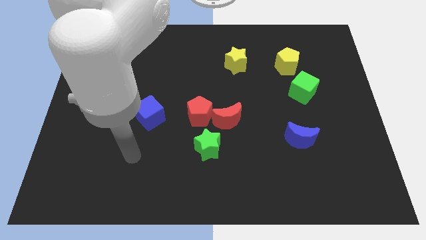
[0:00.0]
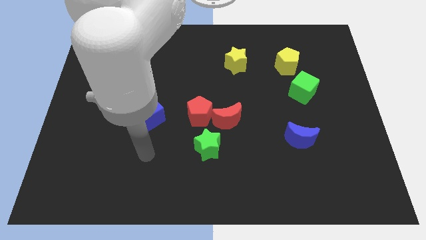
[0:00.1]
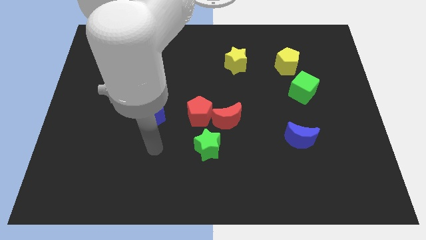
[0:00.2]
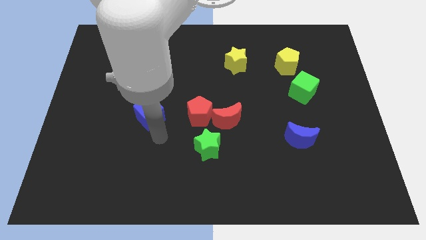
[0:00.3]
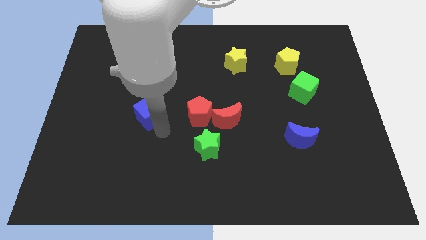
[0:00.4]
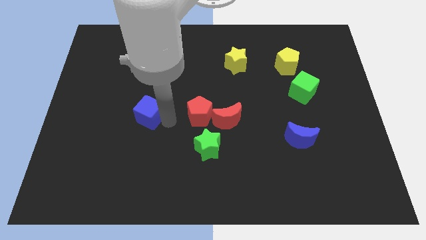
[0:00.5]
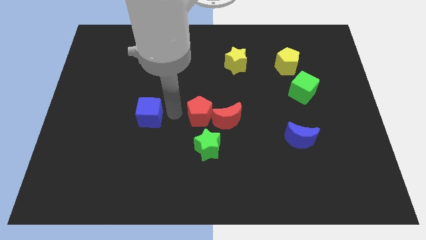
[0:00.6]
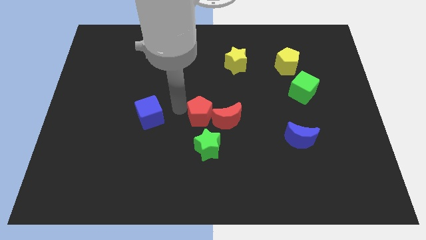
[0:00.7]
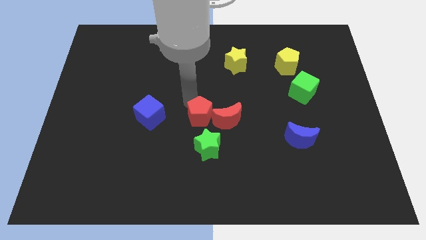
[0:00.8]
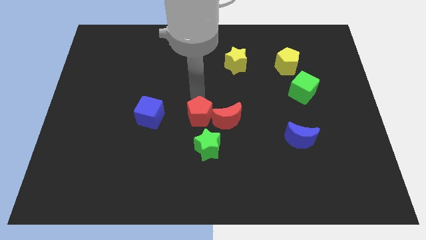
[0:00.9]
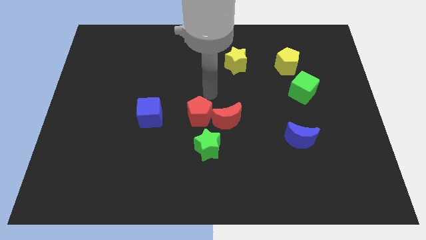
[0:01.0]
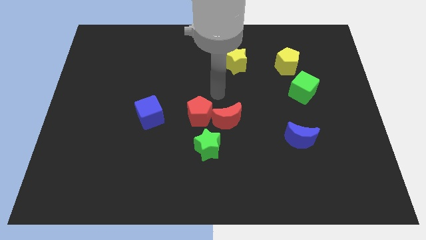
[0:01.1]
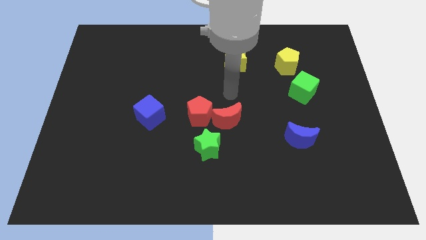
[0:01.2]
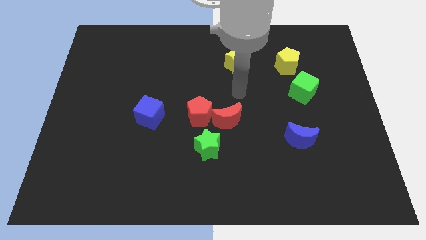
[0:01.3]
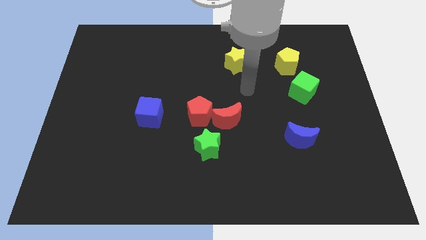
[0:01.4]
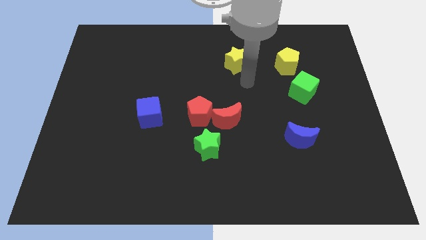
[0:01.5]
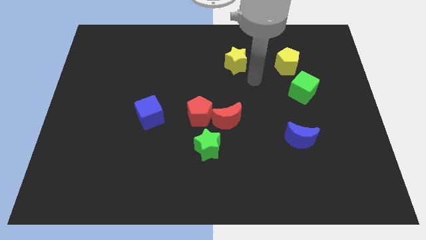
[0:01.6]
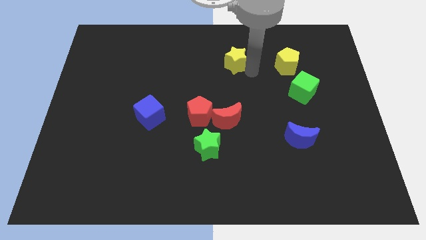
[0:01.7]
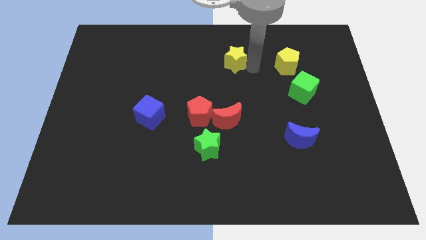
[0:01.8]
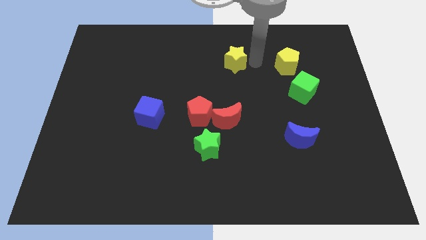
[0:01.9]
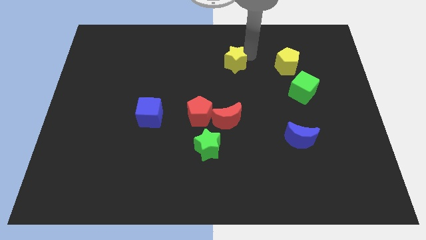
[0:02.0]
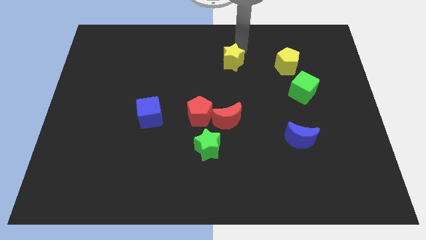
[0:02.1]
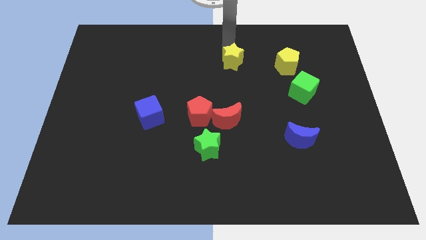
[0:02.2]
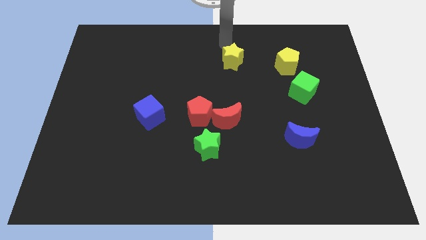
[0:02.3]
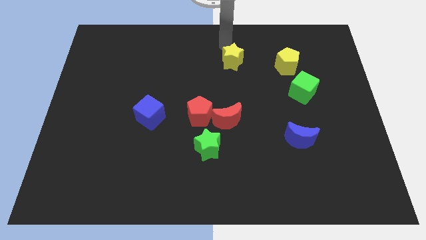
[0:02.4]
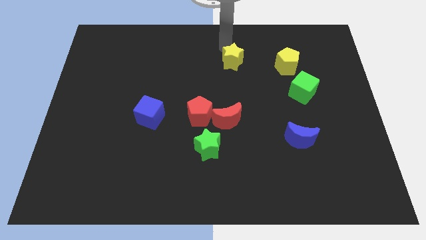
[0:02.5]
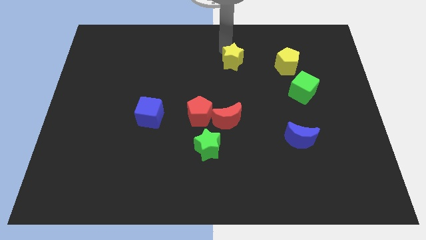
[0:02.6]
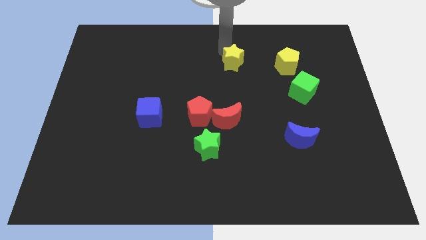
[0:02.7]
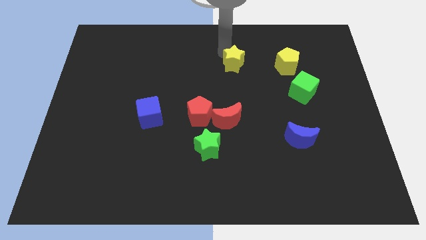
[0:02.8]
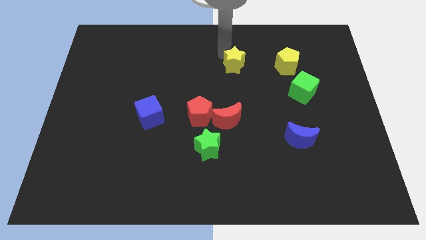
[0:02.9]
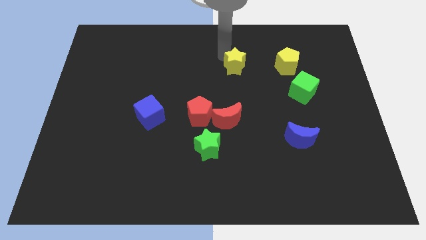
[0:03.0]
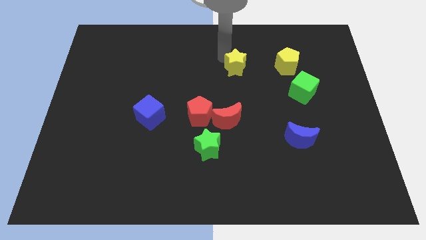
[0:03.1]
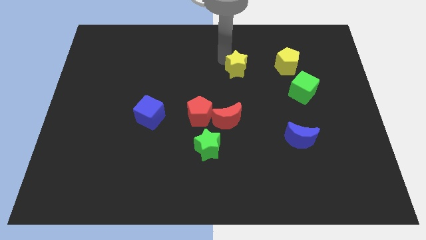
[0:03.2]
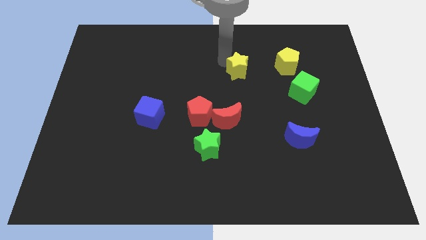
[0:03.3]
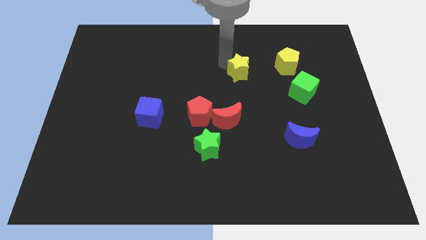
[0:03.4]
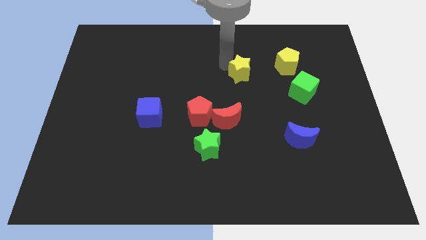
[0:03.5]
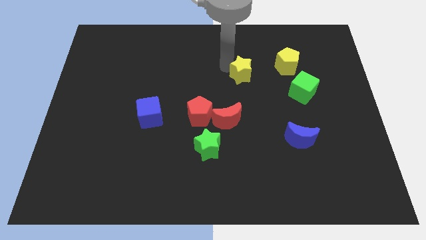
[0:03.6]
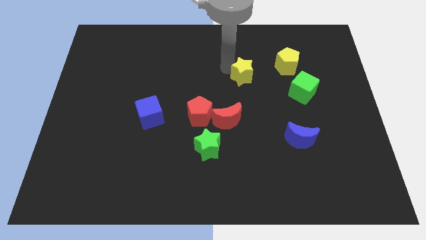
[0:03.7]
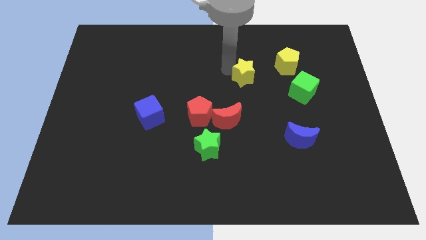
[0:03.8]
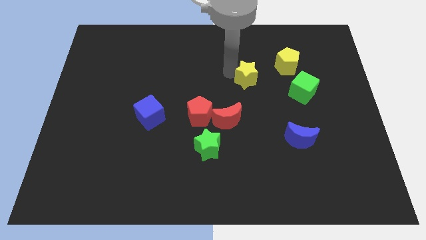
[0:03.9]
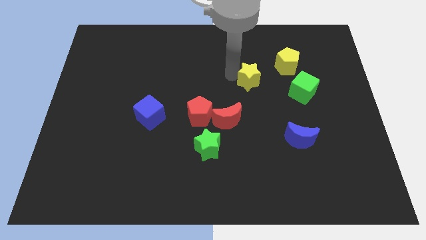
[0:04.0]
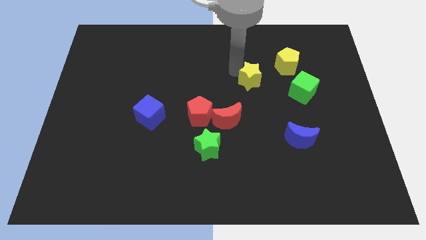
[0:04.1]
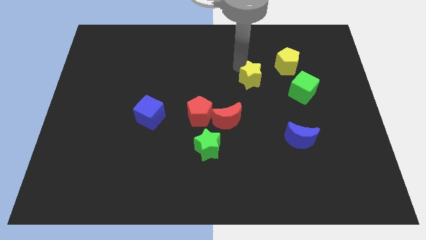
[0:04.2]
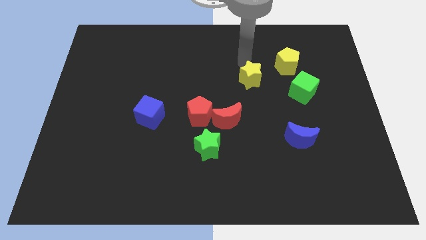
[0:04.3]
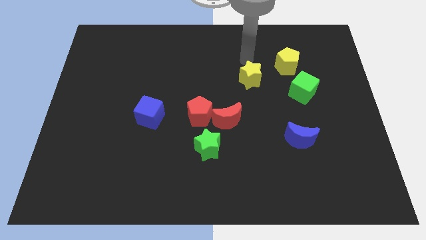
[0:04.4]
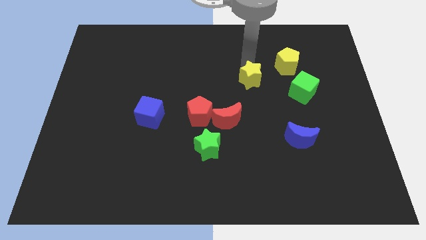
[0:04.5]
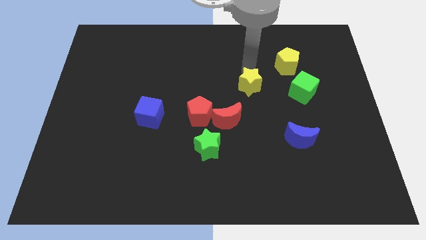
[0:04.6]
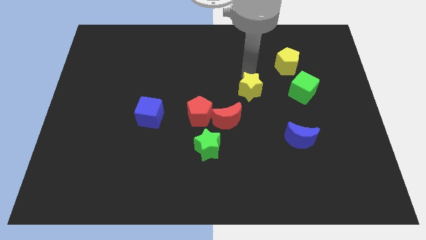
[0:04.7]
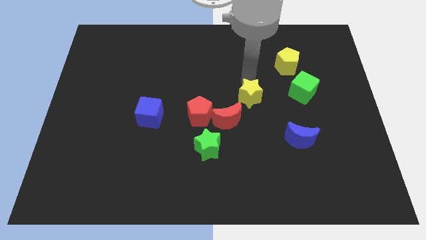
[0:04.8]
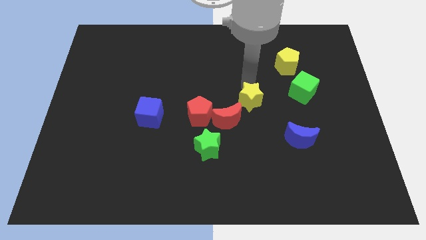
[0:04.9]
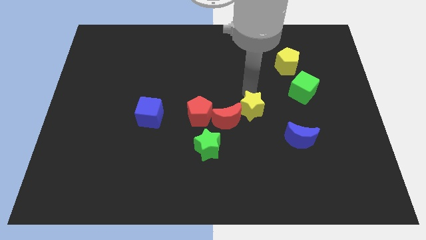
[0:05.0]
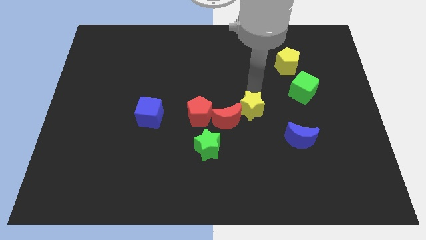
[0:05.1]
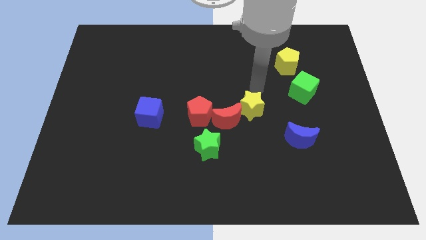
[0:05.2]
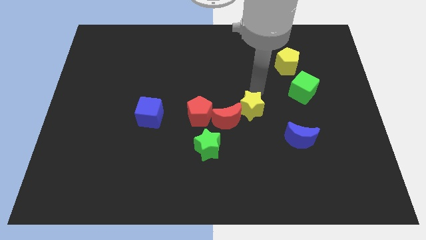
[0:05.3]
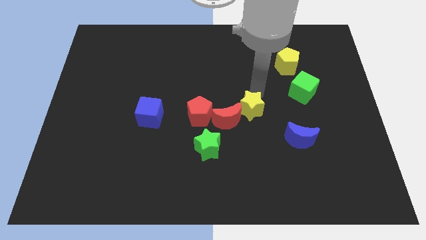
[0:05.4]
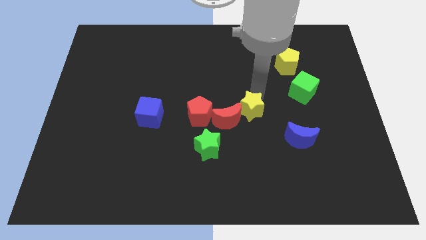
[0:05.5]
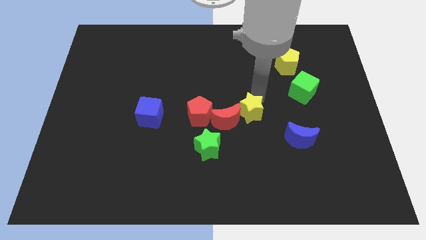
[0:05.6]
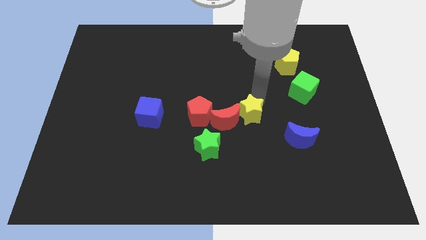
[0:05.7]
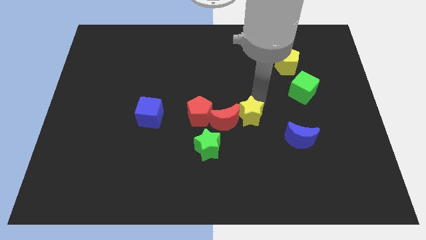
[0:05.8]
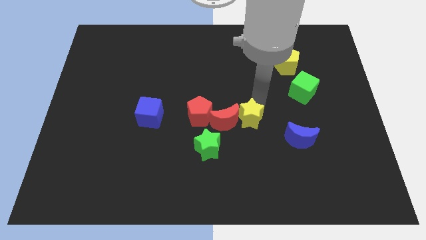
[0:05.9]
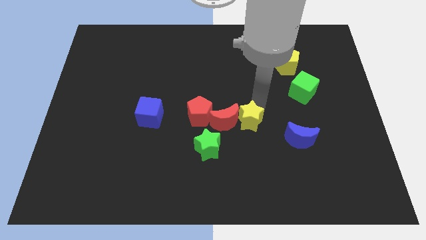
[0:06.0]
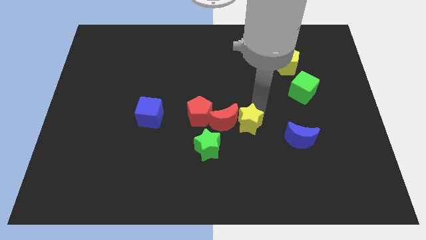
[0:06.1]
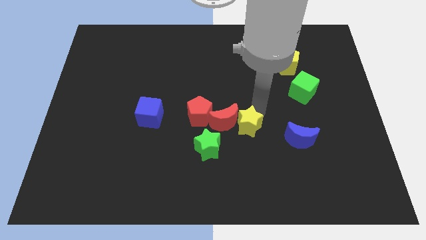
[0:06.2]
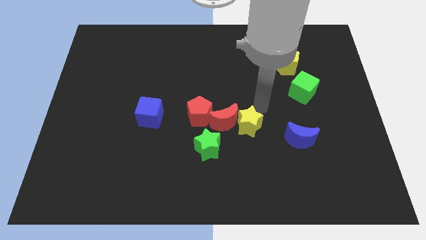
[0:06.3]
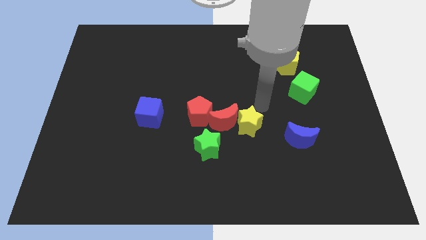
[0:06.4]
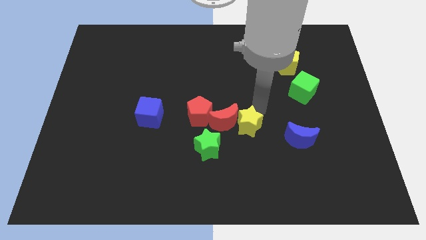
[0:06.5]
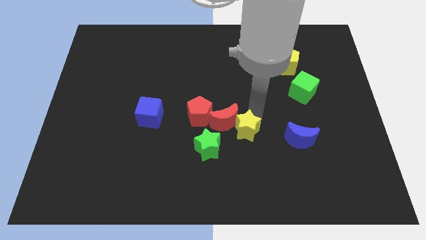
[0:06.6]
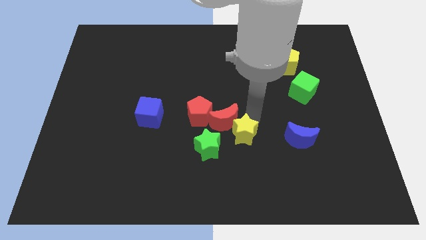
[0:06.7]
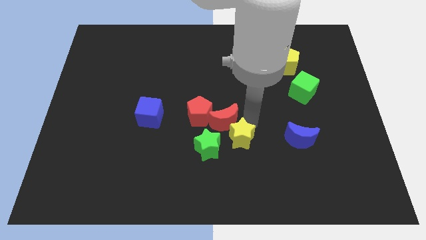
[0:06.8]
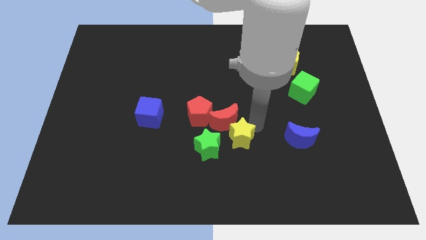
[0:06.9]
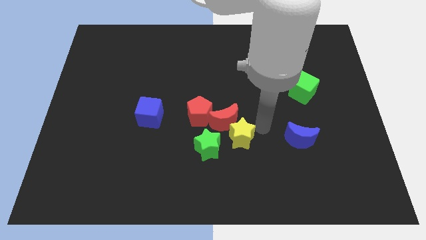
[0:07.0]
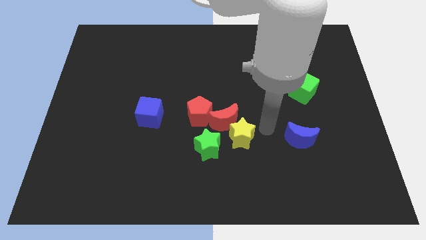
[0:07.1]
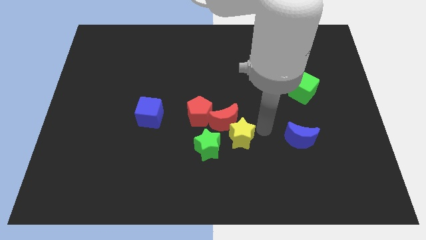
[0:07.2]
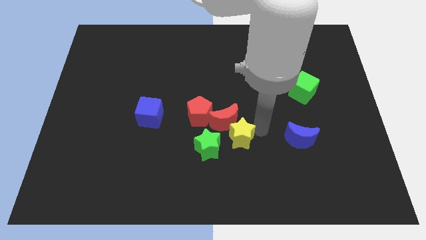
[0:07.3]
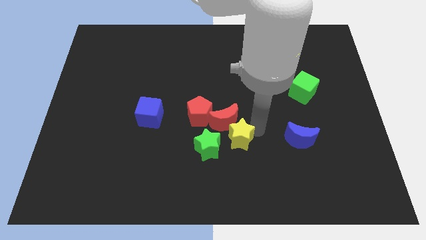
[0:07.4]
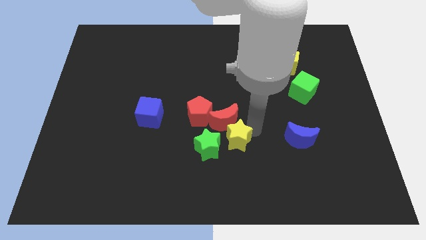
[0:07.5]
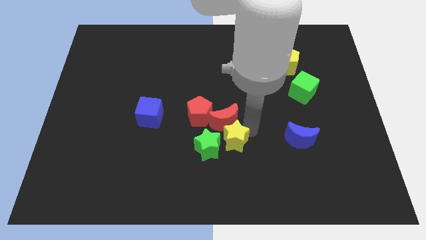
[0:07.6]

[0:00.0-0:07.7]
slide the yellow star close to the green star
